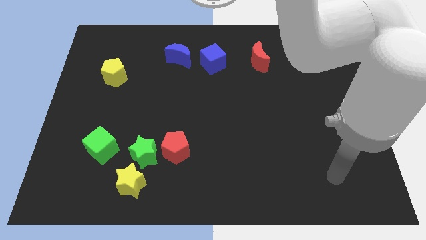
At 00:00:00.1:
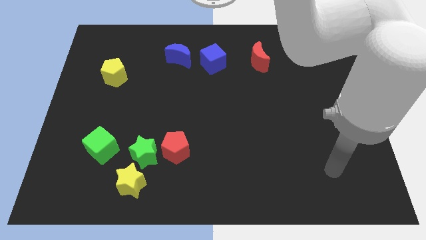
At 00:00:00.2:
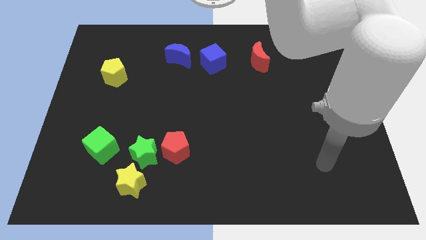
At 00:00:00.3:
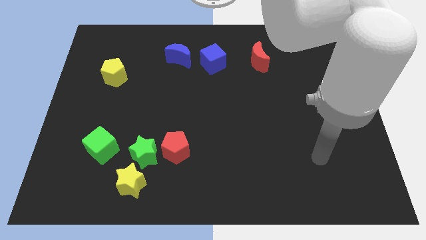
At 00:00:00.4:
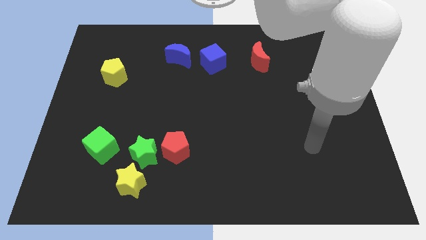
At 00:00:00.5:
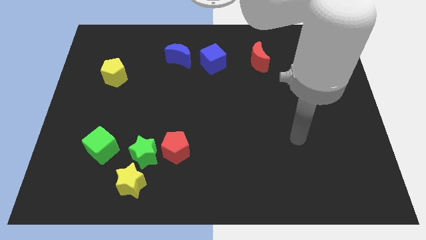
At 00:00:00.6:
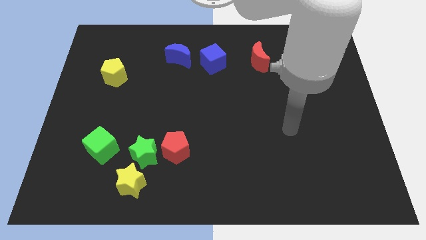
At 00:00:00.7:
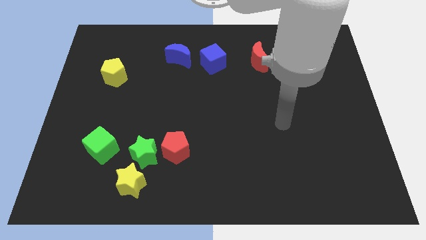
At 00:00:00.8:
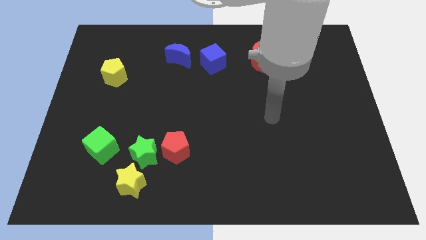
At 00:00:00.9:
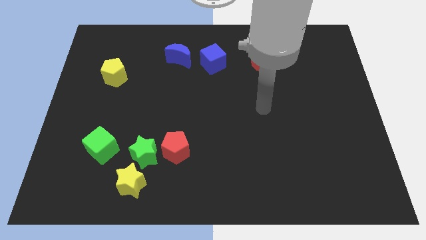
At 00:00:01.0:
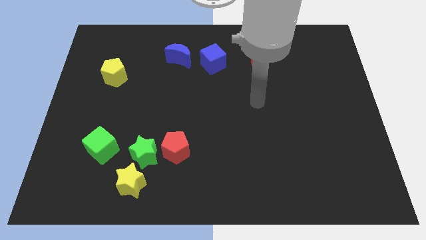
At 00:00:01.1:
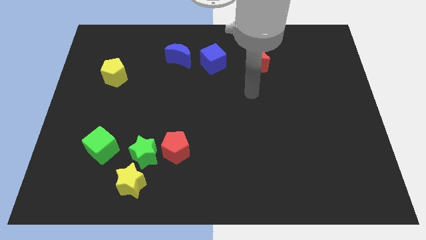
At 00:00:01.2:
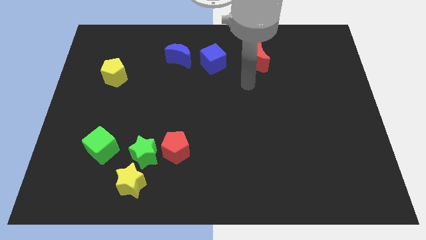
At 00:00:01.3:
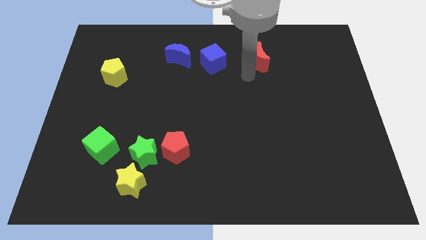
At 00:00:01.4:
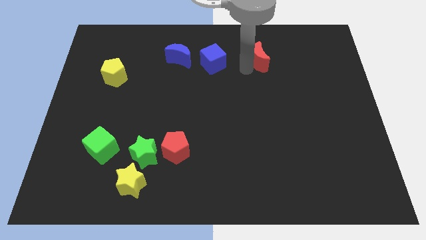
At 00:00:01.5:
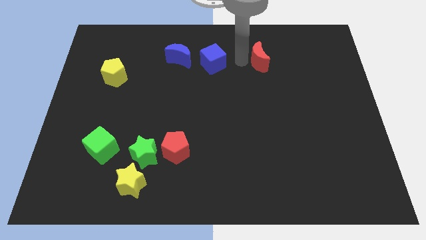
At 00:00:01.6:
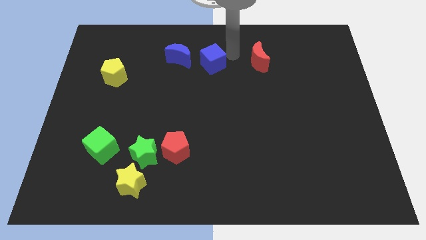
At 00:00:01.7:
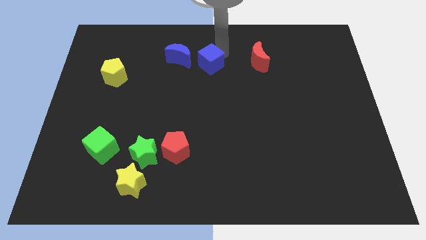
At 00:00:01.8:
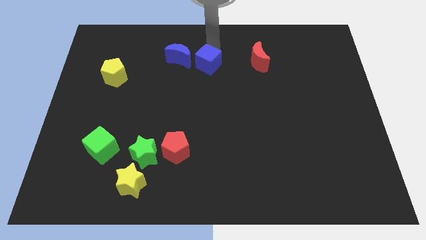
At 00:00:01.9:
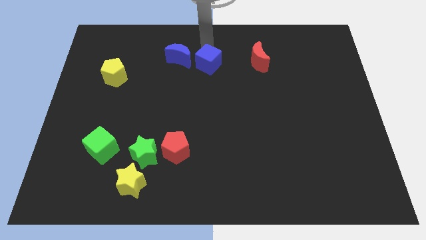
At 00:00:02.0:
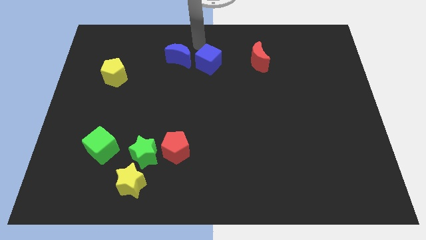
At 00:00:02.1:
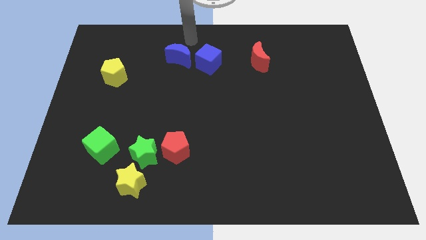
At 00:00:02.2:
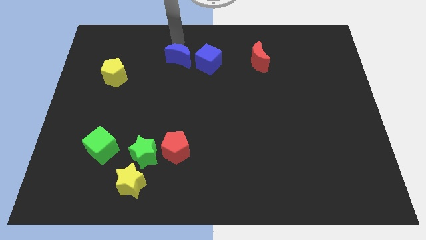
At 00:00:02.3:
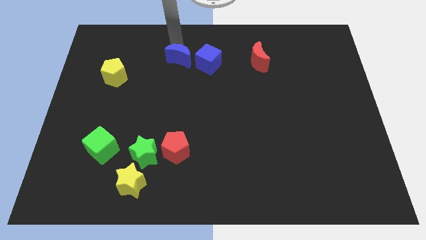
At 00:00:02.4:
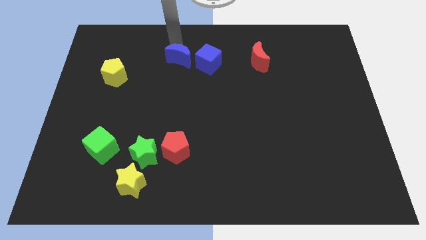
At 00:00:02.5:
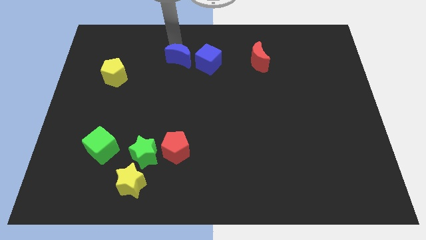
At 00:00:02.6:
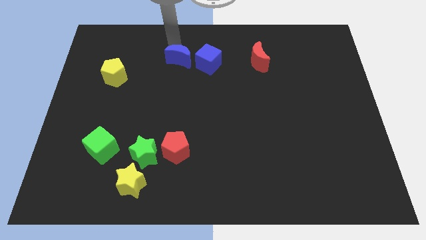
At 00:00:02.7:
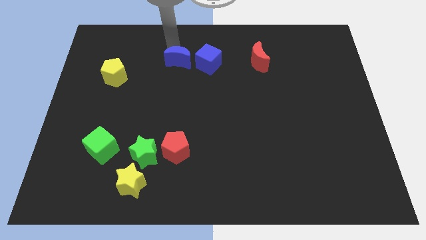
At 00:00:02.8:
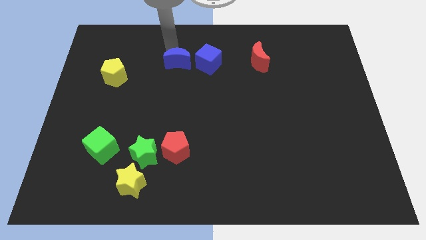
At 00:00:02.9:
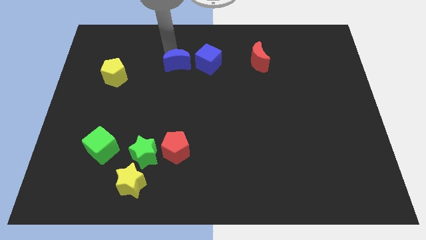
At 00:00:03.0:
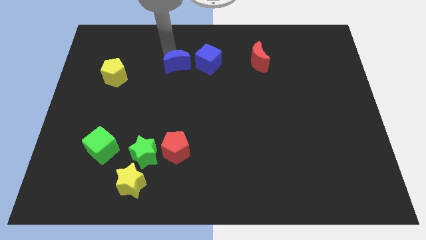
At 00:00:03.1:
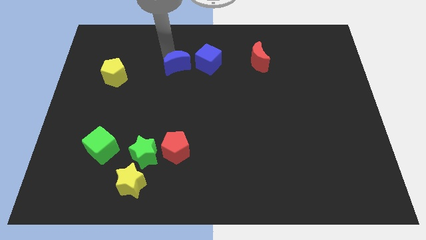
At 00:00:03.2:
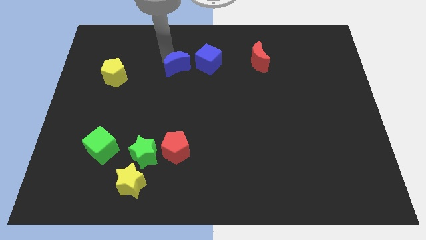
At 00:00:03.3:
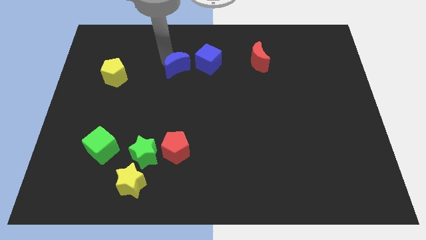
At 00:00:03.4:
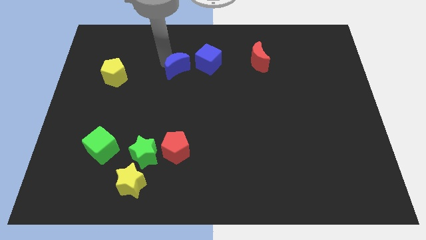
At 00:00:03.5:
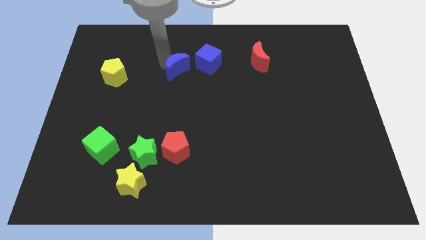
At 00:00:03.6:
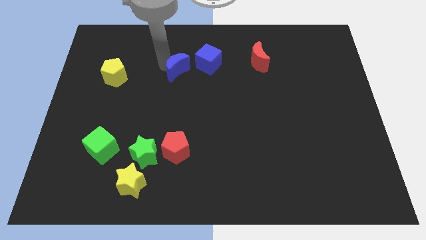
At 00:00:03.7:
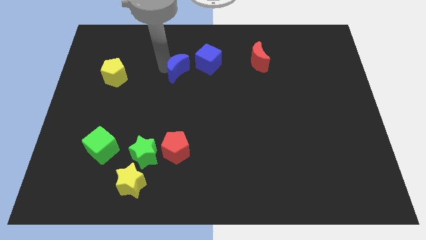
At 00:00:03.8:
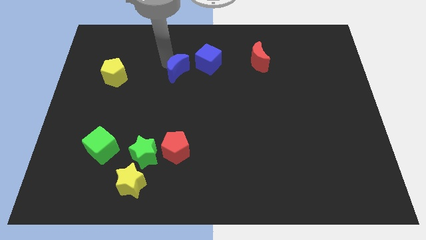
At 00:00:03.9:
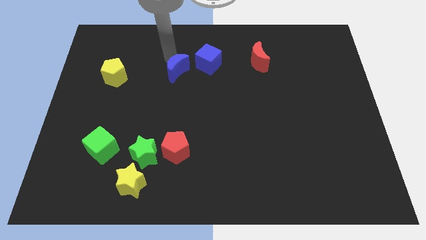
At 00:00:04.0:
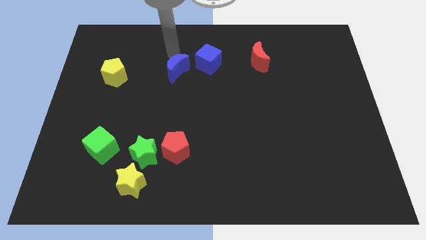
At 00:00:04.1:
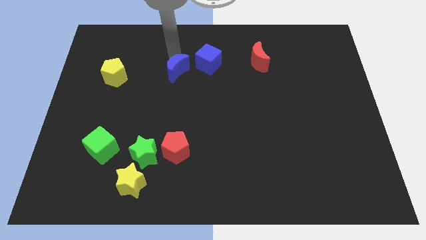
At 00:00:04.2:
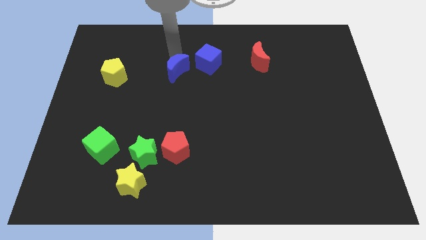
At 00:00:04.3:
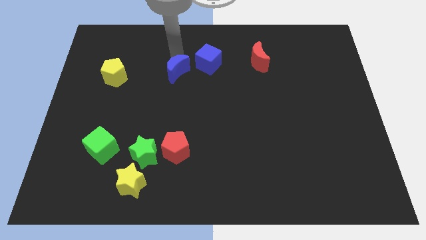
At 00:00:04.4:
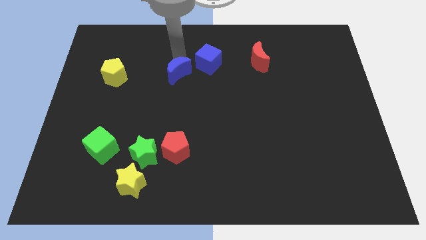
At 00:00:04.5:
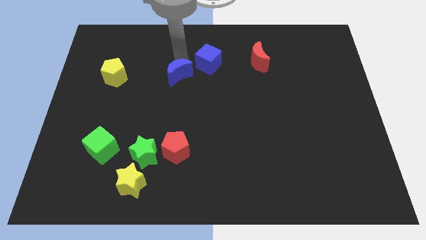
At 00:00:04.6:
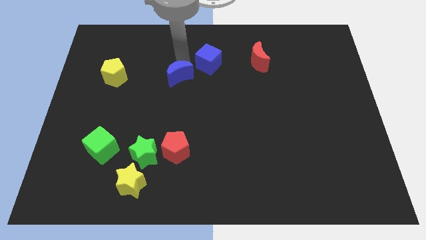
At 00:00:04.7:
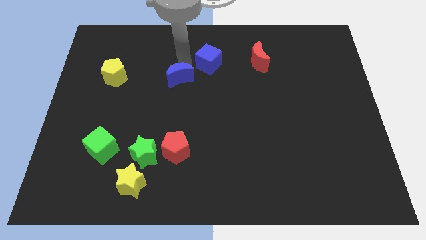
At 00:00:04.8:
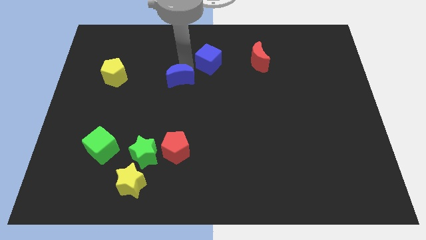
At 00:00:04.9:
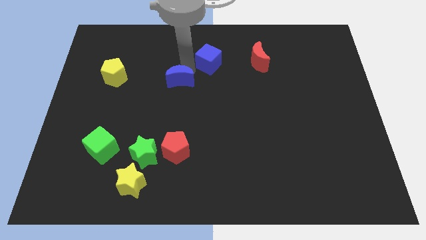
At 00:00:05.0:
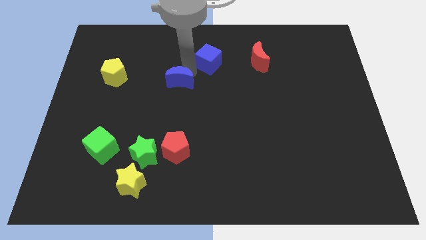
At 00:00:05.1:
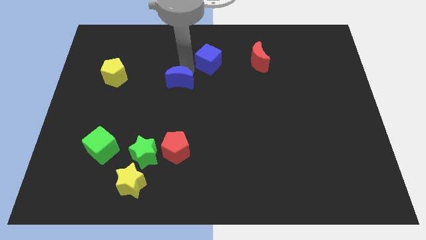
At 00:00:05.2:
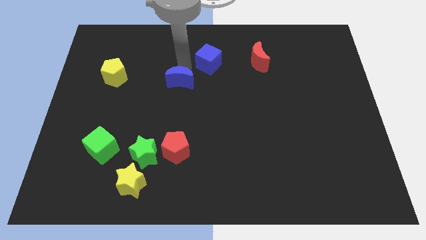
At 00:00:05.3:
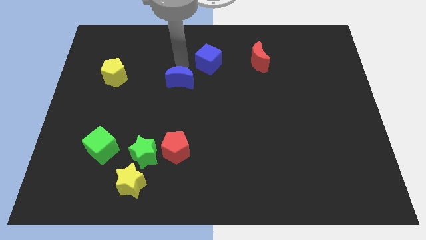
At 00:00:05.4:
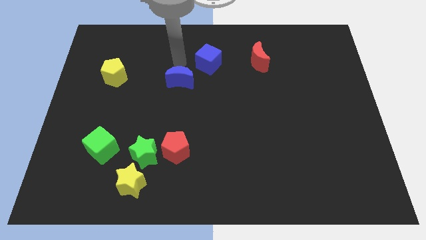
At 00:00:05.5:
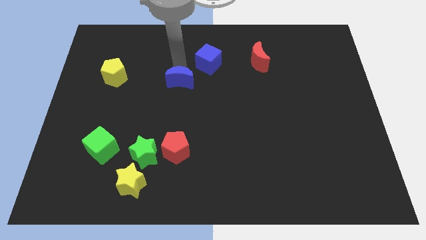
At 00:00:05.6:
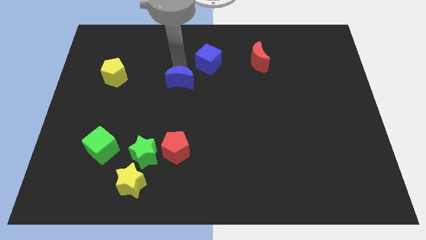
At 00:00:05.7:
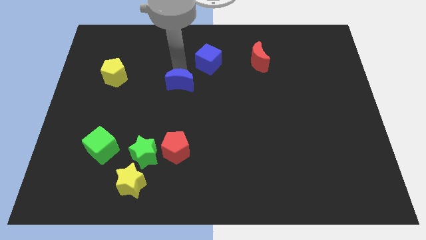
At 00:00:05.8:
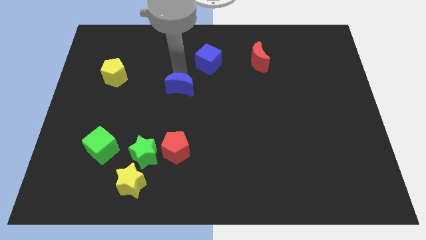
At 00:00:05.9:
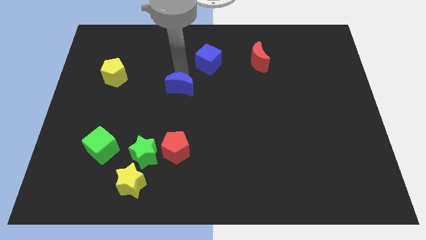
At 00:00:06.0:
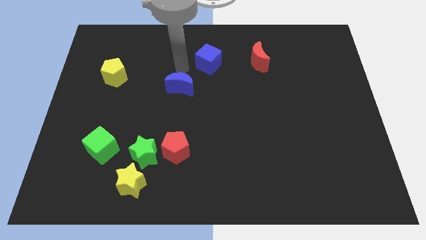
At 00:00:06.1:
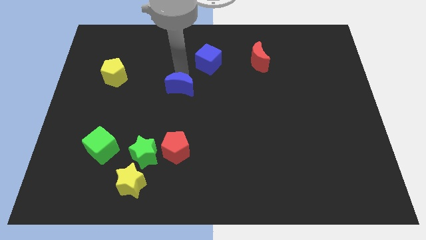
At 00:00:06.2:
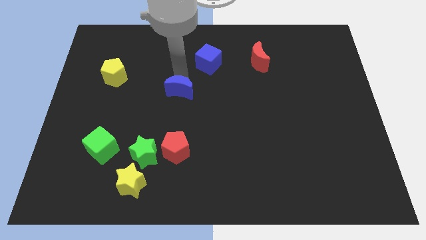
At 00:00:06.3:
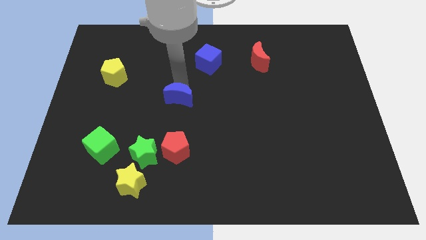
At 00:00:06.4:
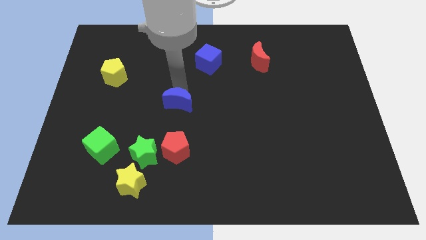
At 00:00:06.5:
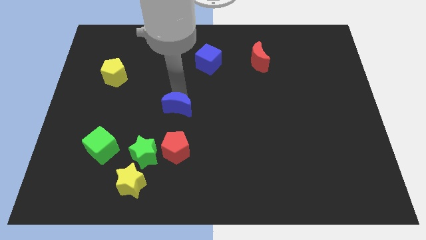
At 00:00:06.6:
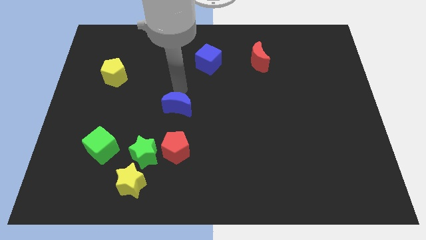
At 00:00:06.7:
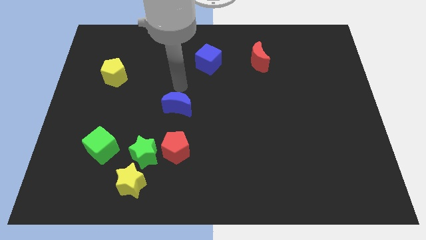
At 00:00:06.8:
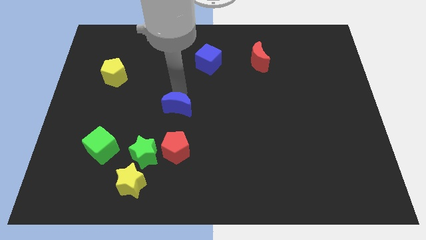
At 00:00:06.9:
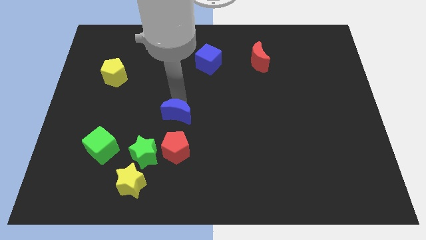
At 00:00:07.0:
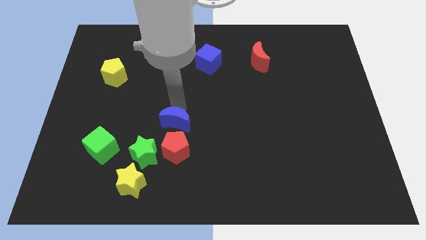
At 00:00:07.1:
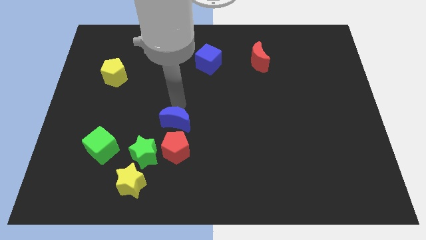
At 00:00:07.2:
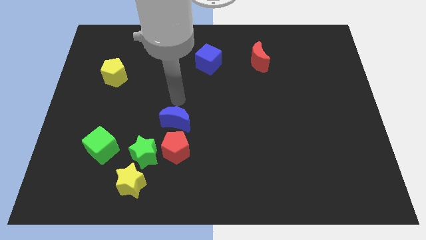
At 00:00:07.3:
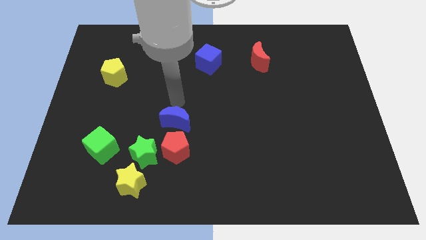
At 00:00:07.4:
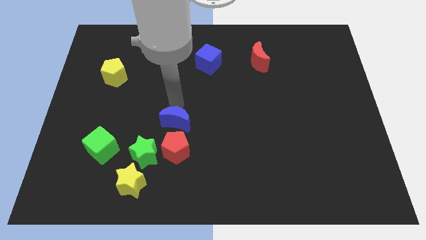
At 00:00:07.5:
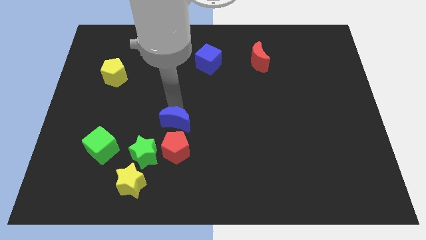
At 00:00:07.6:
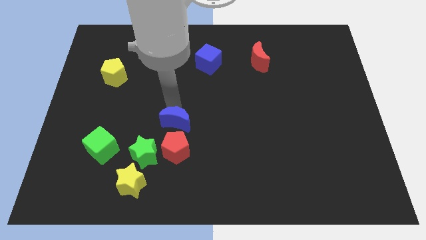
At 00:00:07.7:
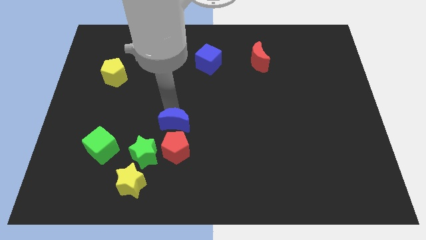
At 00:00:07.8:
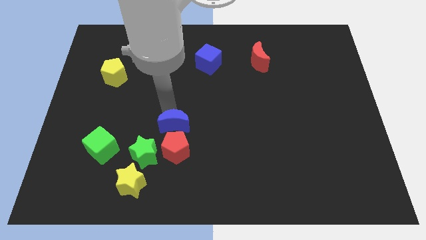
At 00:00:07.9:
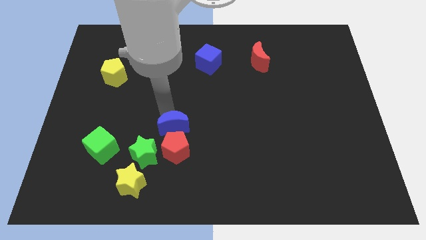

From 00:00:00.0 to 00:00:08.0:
put the blue moon next to the red pentagon
